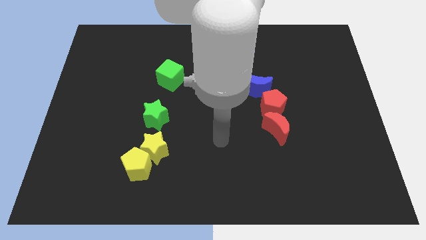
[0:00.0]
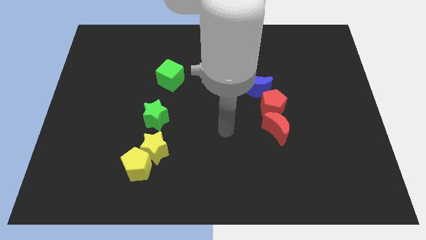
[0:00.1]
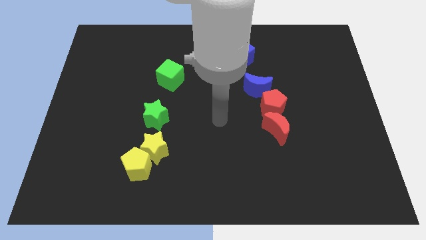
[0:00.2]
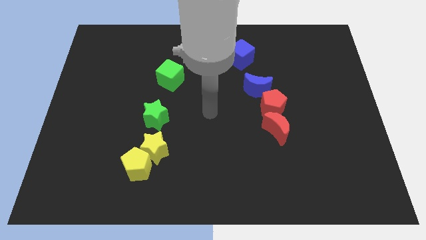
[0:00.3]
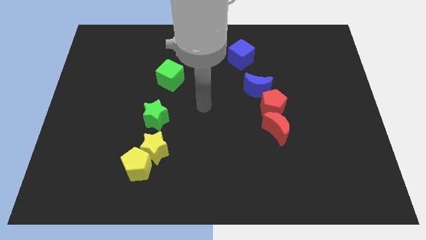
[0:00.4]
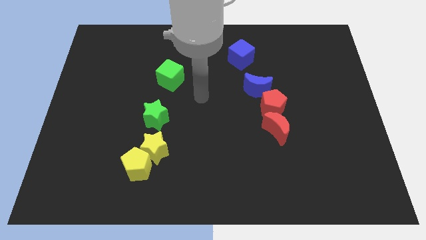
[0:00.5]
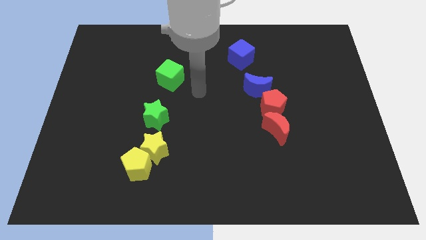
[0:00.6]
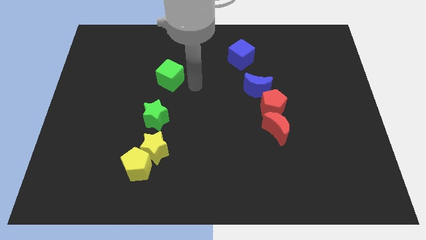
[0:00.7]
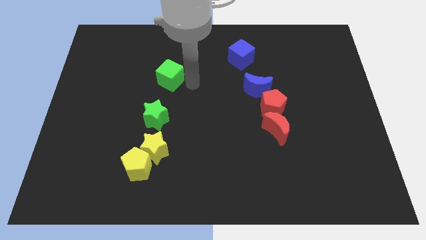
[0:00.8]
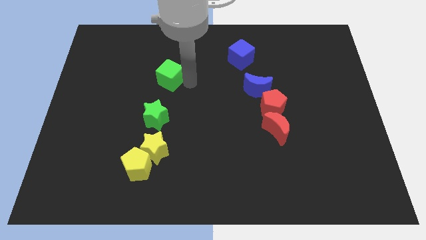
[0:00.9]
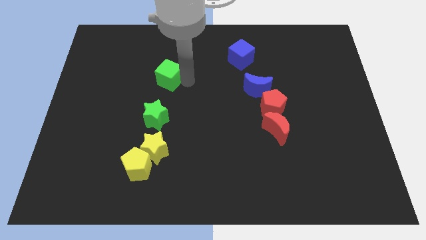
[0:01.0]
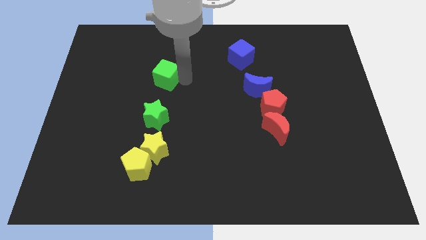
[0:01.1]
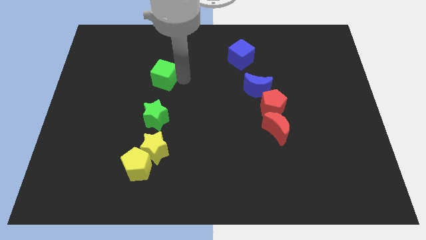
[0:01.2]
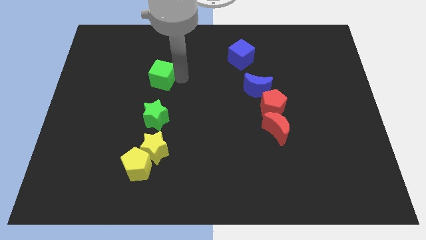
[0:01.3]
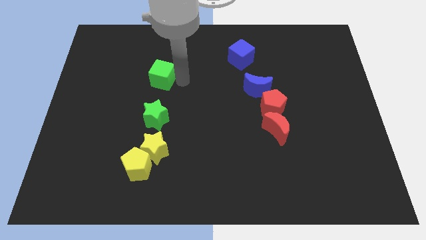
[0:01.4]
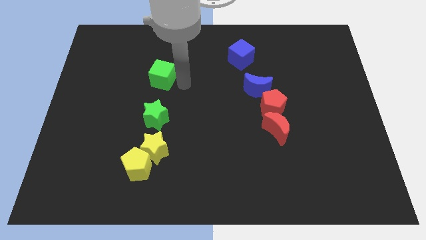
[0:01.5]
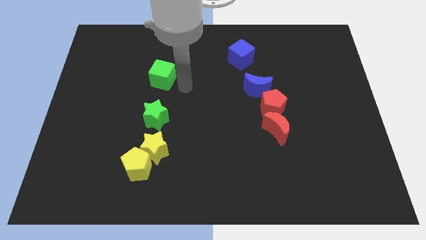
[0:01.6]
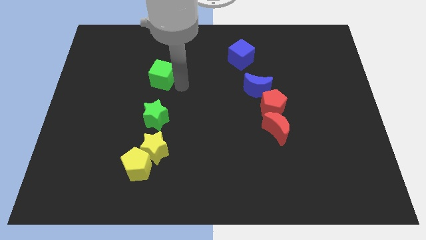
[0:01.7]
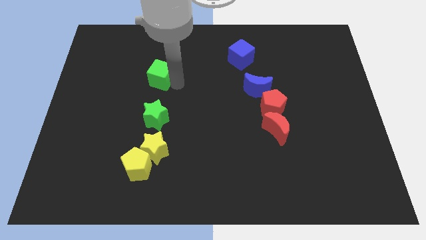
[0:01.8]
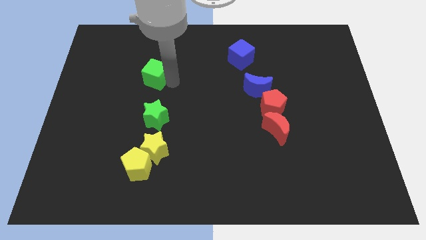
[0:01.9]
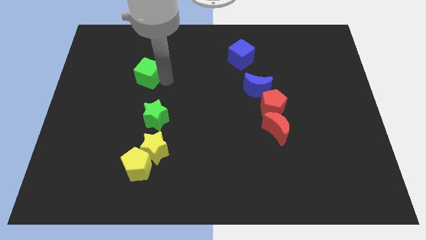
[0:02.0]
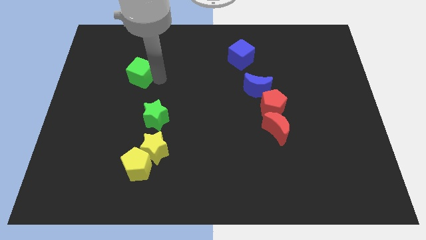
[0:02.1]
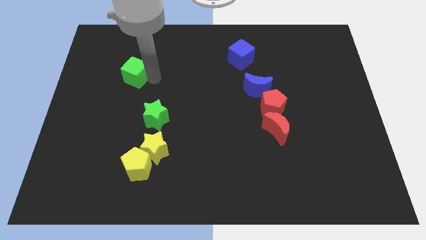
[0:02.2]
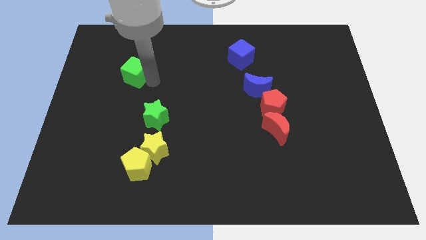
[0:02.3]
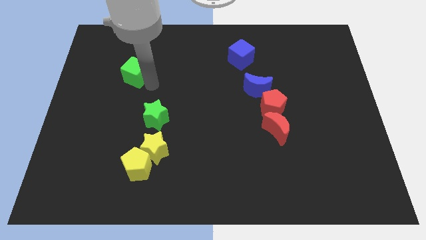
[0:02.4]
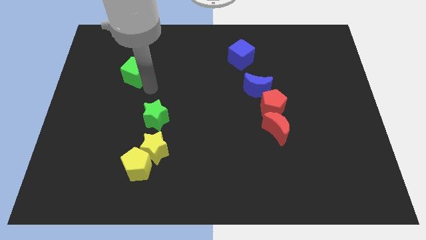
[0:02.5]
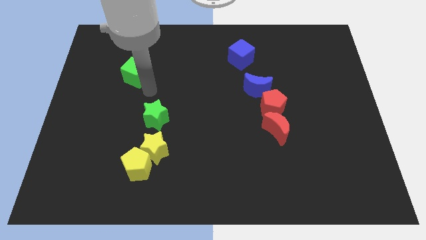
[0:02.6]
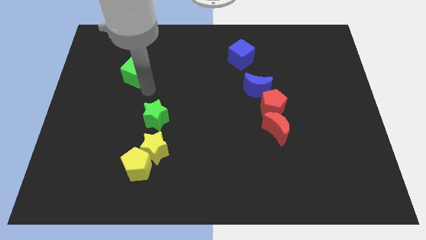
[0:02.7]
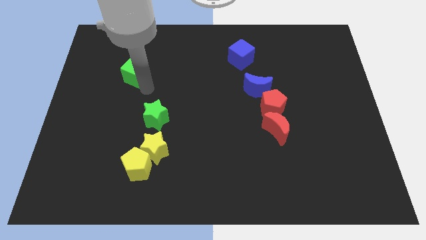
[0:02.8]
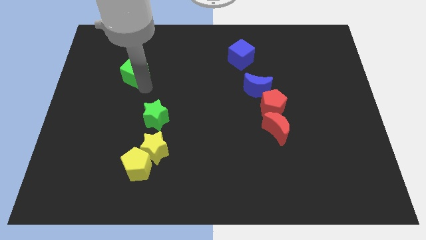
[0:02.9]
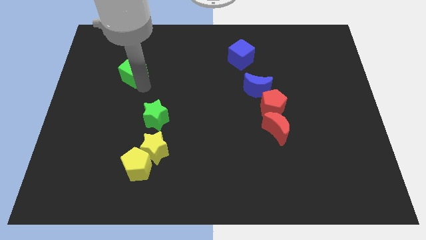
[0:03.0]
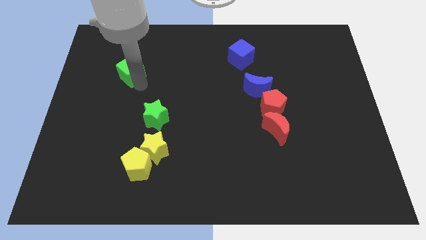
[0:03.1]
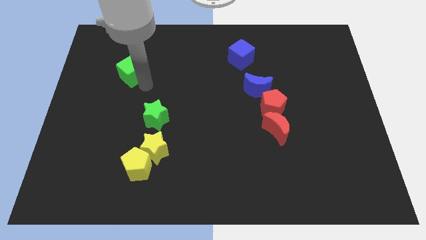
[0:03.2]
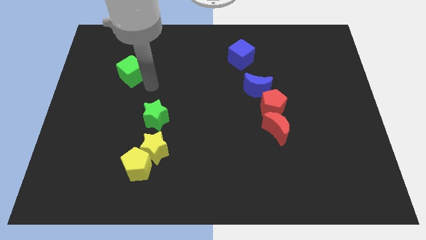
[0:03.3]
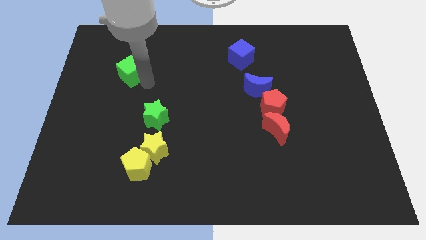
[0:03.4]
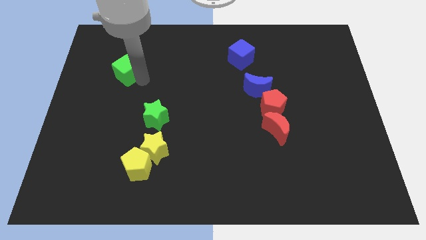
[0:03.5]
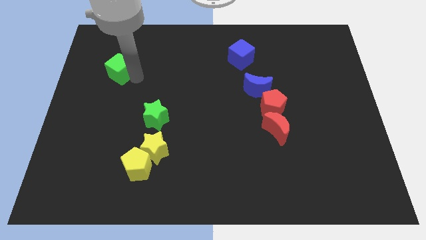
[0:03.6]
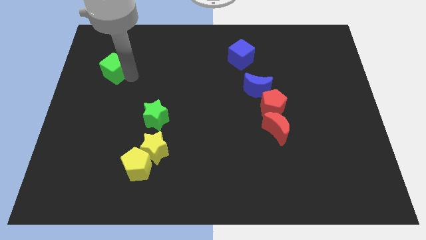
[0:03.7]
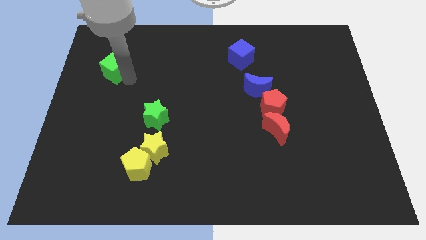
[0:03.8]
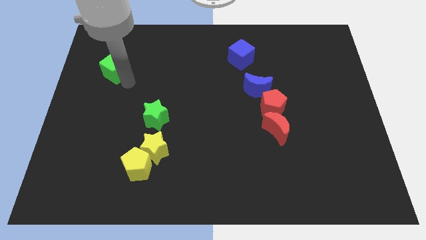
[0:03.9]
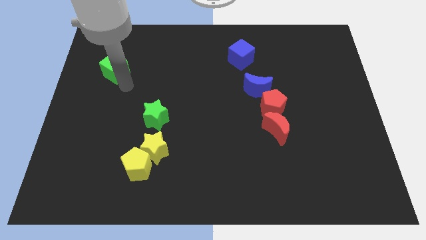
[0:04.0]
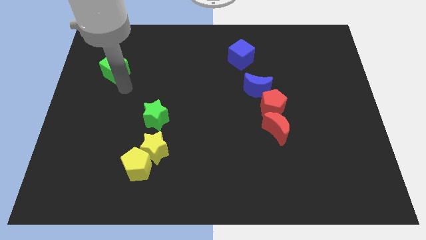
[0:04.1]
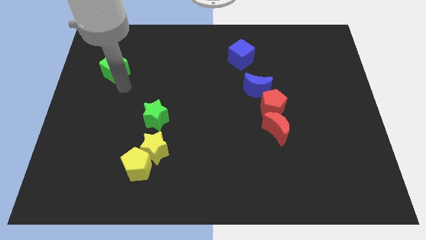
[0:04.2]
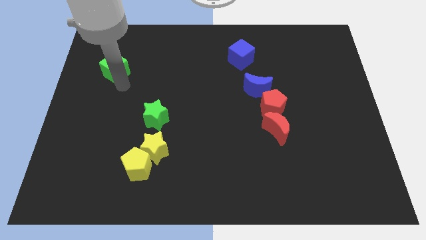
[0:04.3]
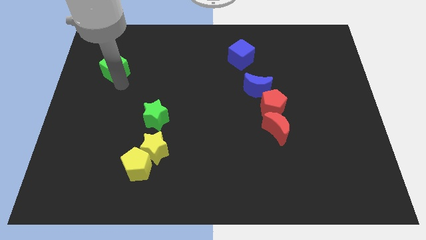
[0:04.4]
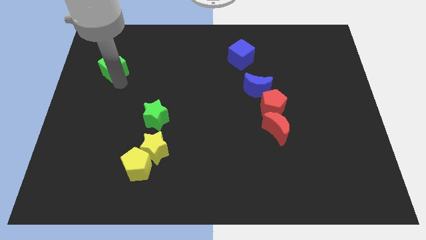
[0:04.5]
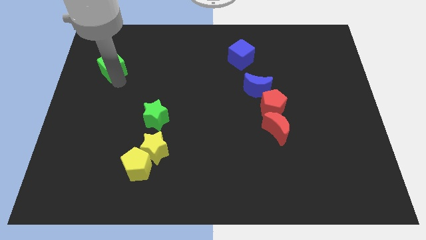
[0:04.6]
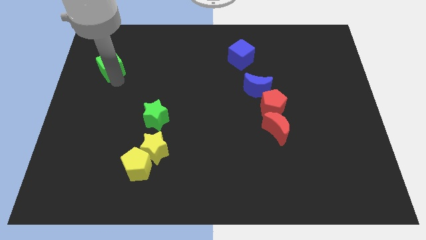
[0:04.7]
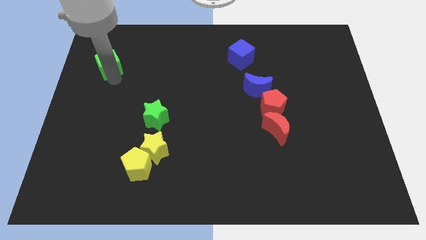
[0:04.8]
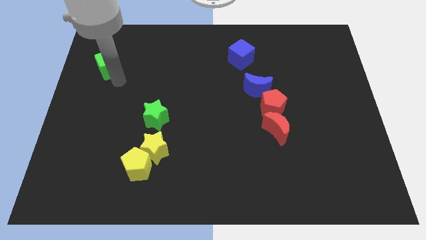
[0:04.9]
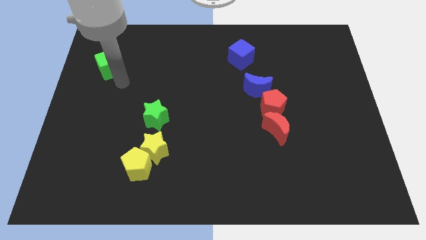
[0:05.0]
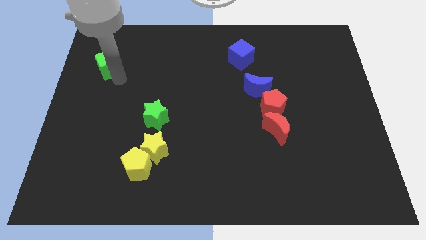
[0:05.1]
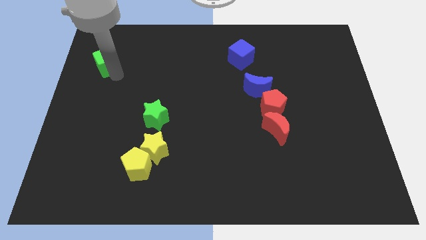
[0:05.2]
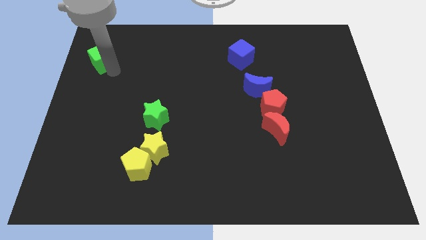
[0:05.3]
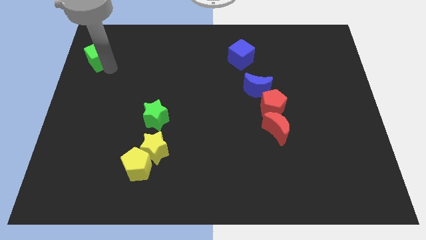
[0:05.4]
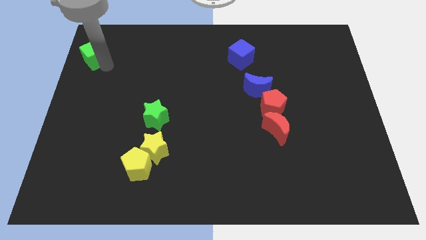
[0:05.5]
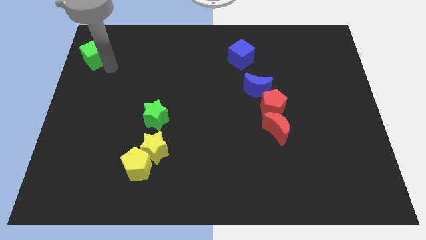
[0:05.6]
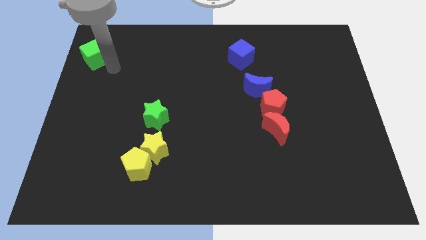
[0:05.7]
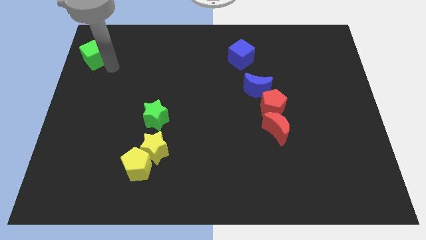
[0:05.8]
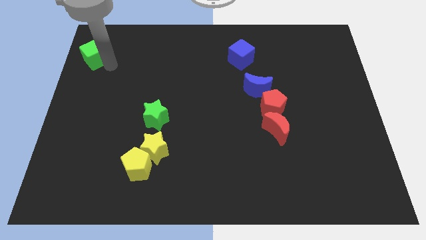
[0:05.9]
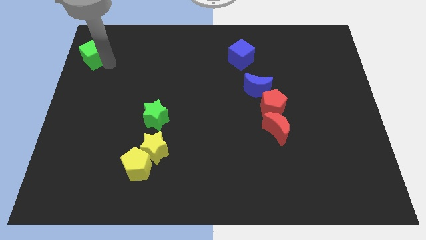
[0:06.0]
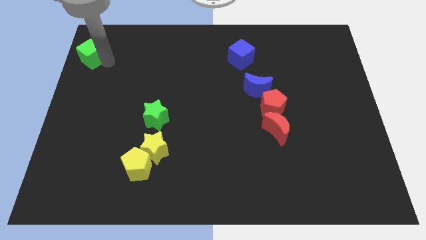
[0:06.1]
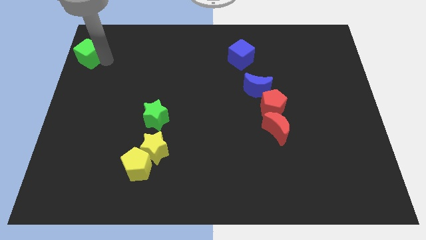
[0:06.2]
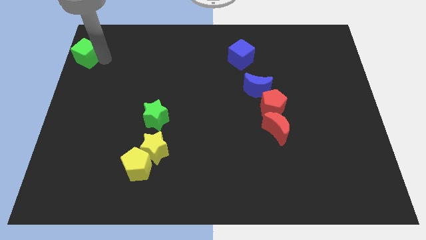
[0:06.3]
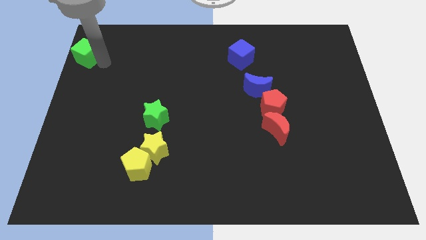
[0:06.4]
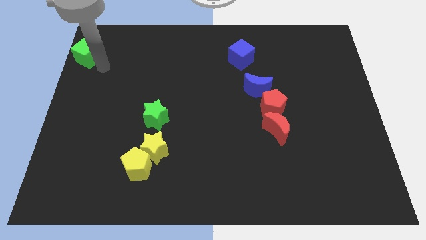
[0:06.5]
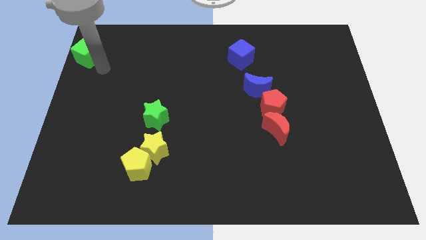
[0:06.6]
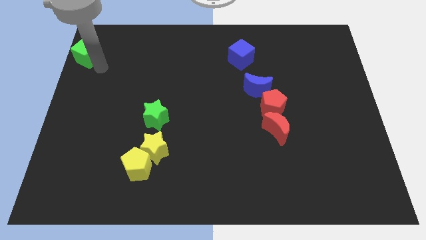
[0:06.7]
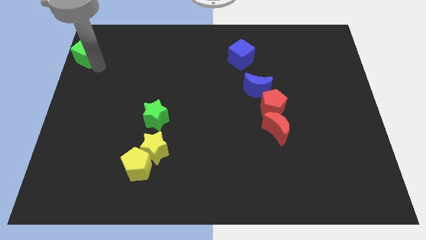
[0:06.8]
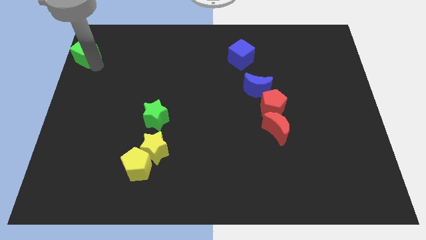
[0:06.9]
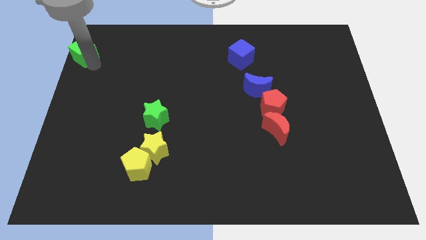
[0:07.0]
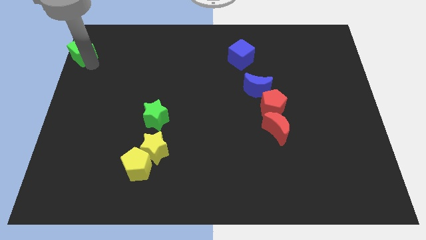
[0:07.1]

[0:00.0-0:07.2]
move the green cube to the top left
